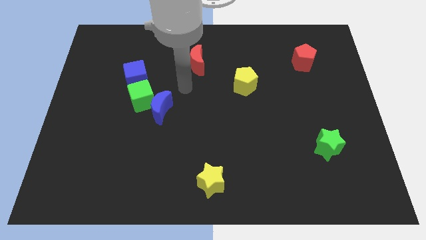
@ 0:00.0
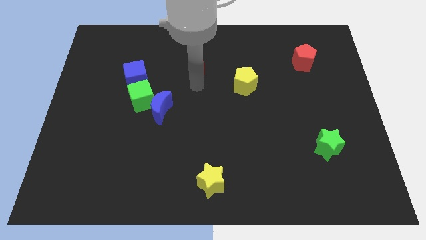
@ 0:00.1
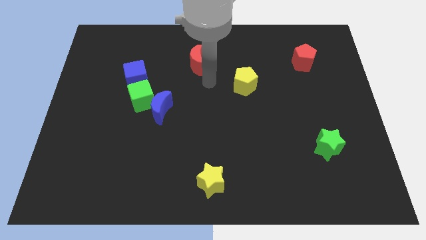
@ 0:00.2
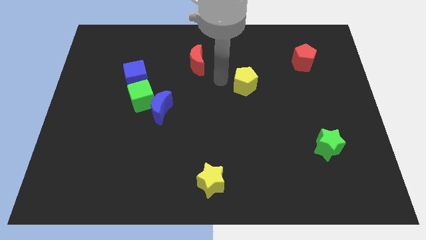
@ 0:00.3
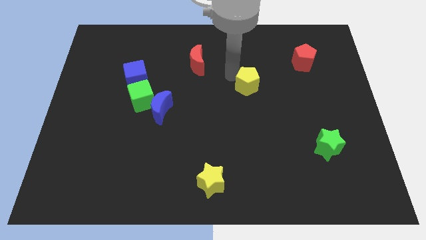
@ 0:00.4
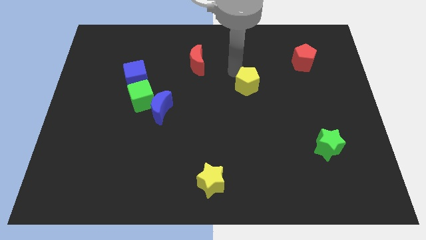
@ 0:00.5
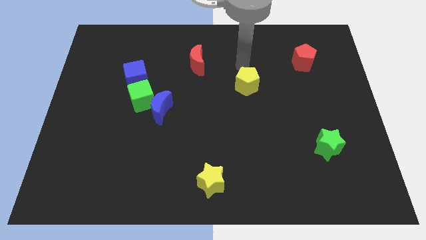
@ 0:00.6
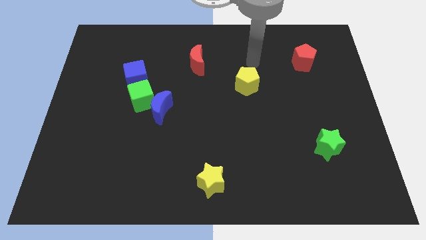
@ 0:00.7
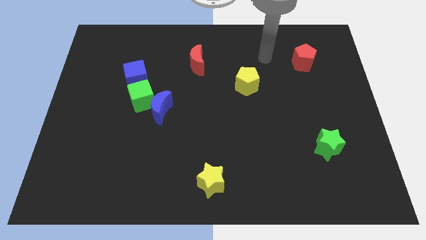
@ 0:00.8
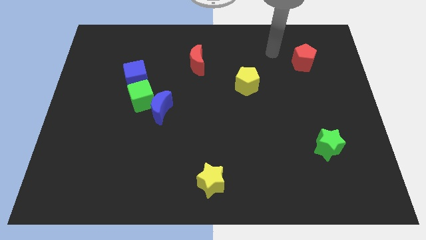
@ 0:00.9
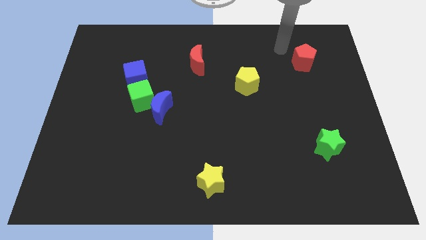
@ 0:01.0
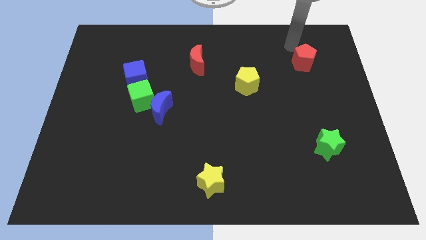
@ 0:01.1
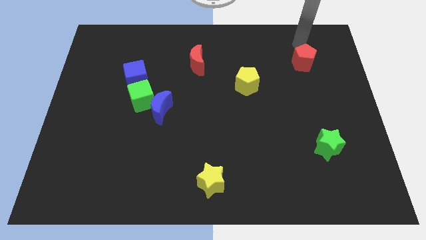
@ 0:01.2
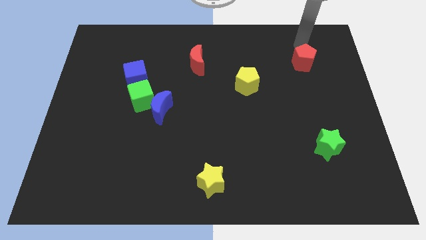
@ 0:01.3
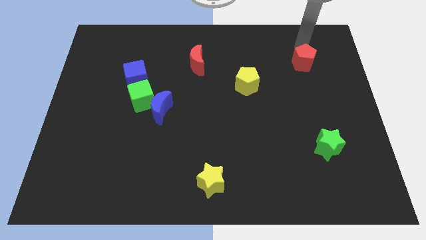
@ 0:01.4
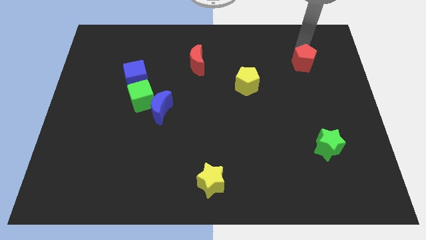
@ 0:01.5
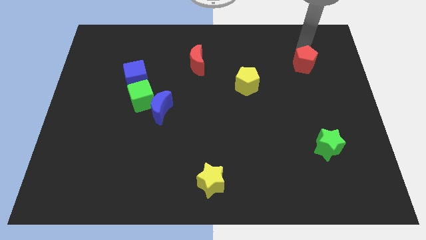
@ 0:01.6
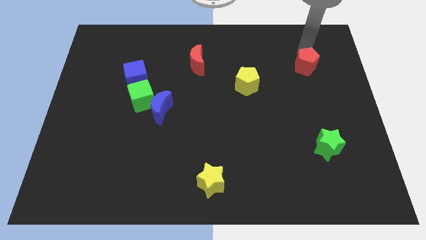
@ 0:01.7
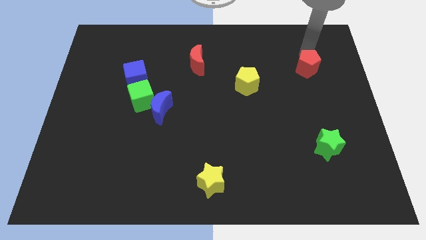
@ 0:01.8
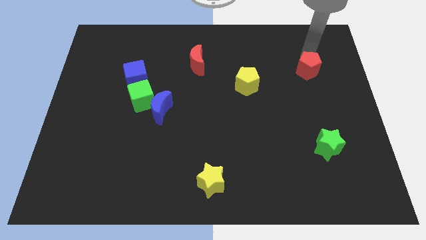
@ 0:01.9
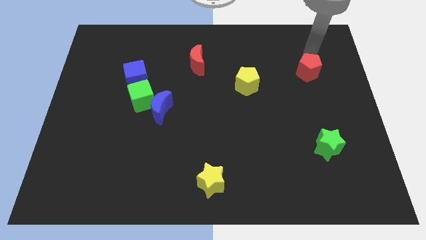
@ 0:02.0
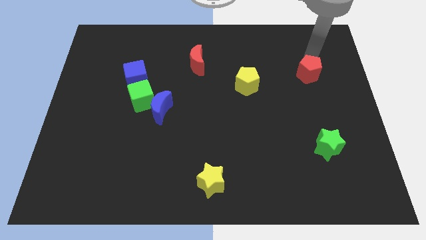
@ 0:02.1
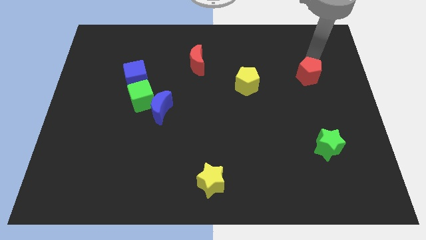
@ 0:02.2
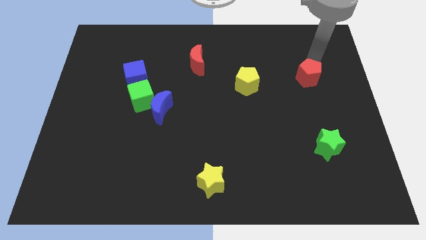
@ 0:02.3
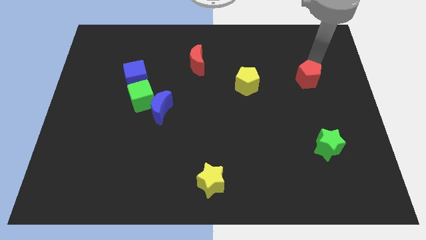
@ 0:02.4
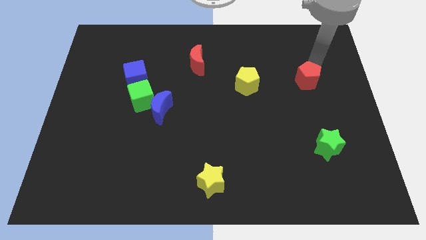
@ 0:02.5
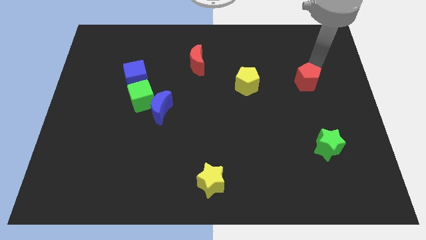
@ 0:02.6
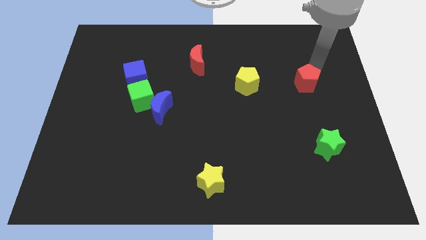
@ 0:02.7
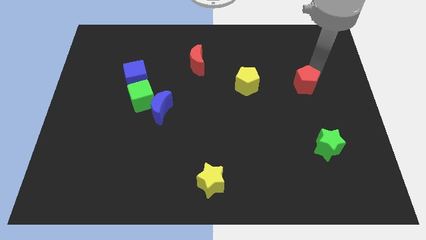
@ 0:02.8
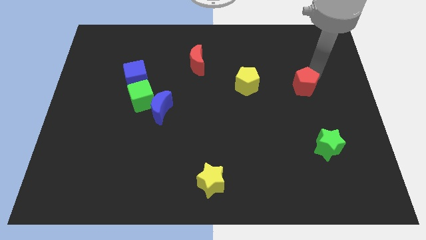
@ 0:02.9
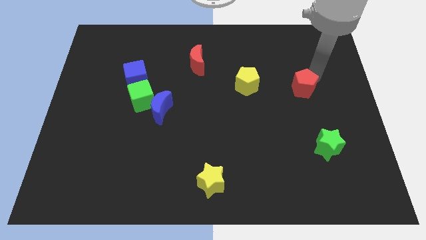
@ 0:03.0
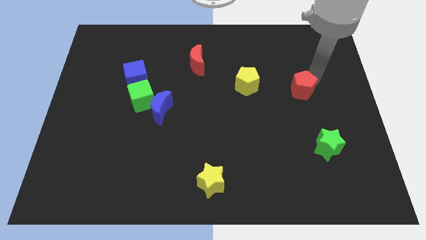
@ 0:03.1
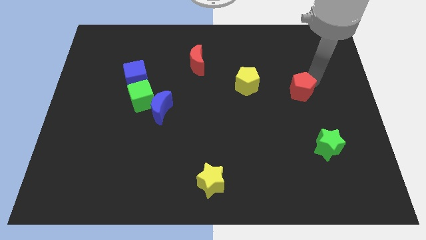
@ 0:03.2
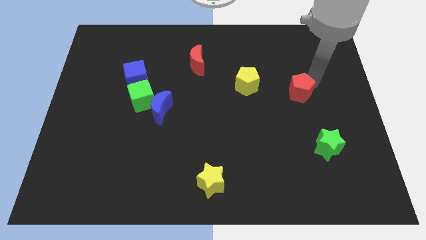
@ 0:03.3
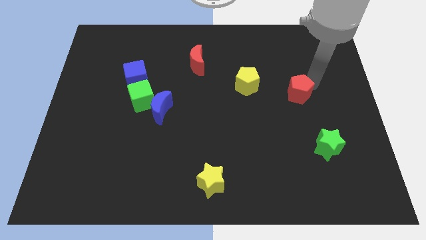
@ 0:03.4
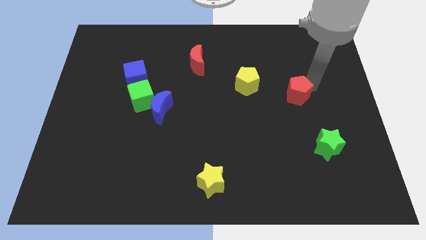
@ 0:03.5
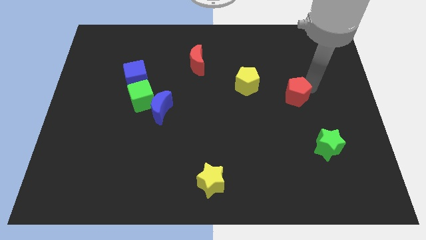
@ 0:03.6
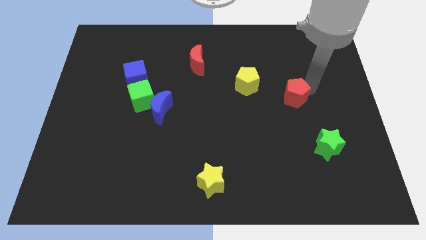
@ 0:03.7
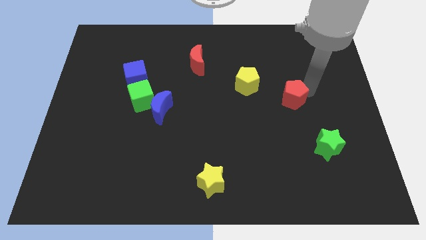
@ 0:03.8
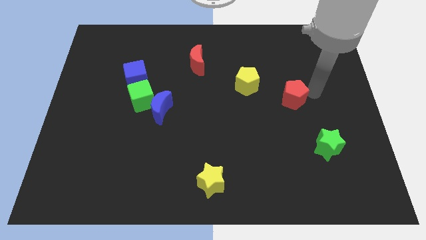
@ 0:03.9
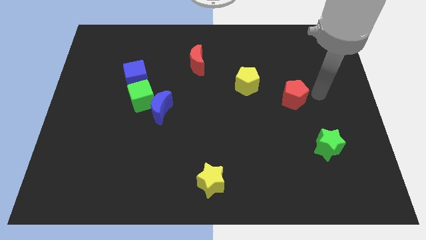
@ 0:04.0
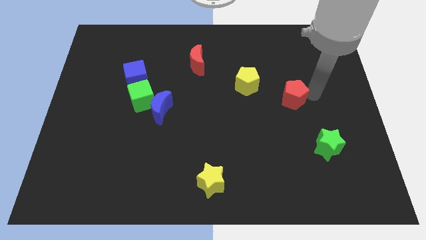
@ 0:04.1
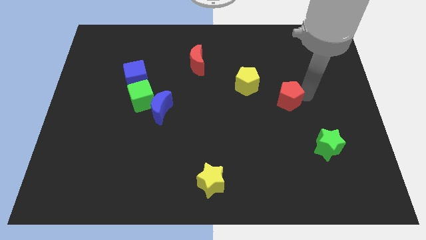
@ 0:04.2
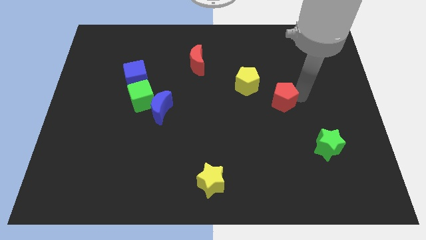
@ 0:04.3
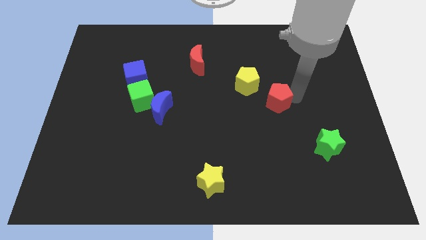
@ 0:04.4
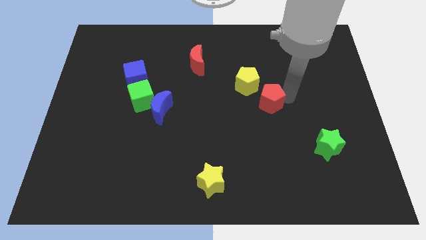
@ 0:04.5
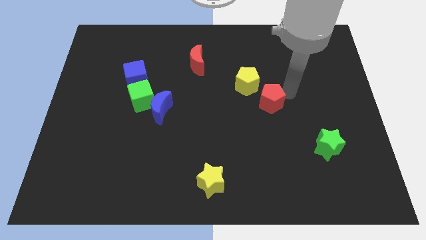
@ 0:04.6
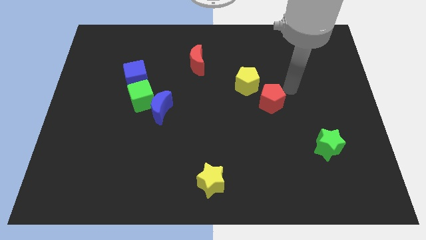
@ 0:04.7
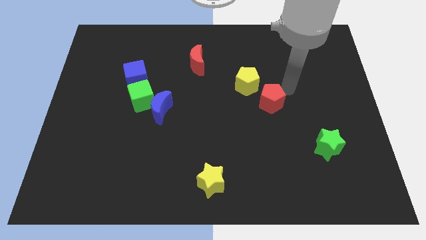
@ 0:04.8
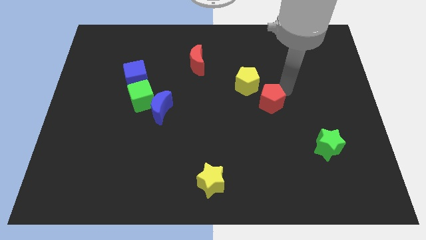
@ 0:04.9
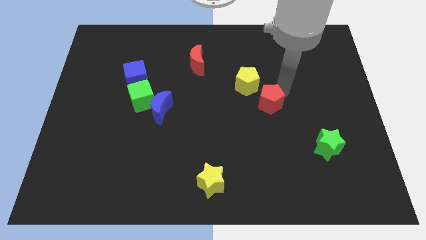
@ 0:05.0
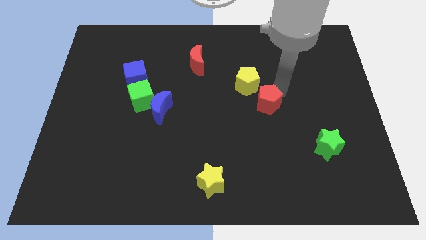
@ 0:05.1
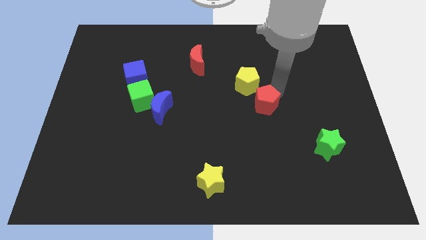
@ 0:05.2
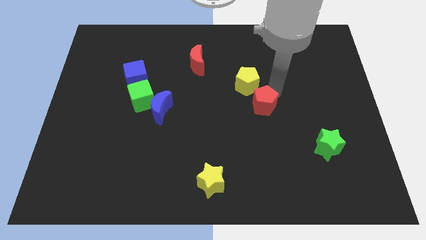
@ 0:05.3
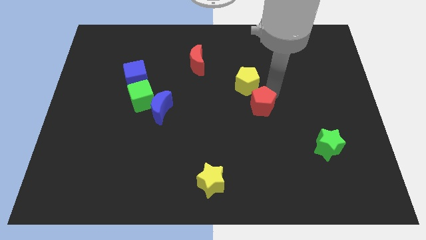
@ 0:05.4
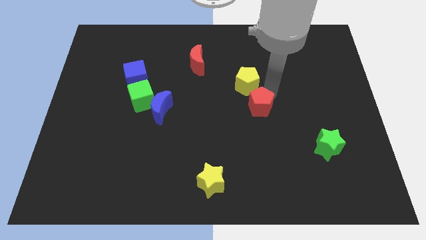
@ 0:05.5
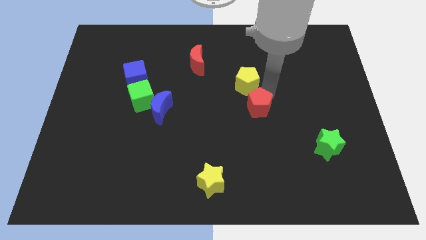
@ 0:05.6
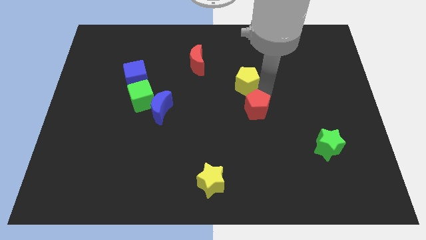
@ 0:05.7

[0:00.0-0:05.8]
slide the red pentagon diagonally down and to the left

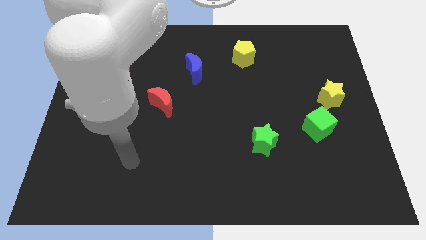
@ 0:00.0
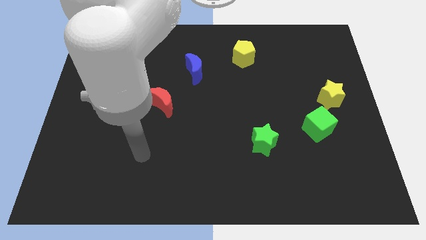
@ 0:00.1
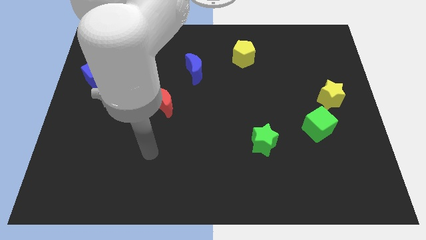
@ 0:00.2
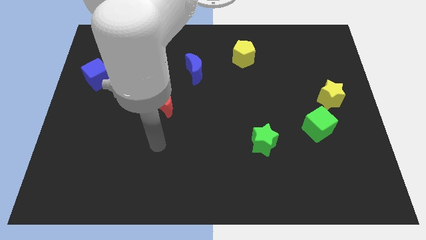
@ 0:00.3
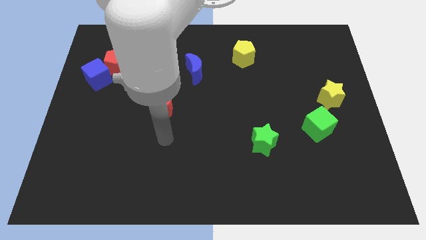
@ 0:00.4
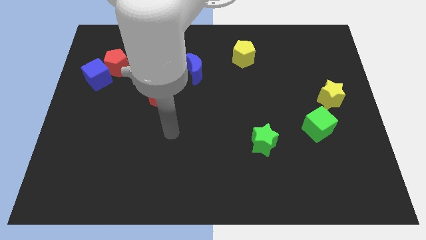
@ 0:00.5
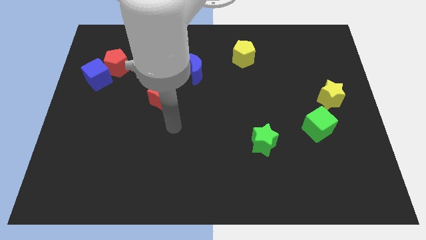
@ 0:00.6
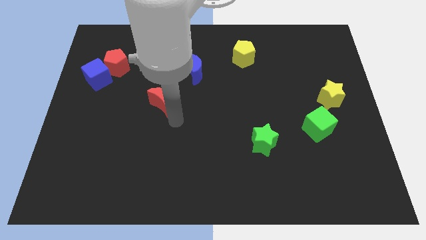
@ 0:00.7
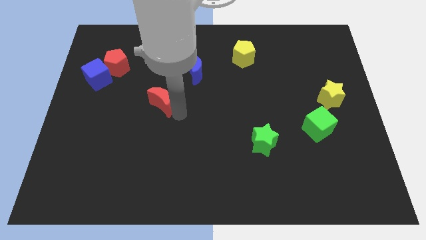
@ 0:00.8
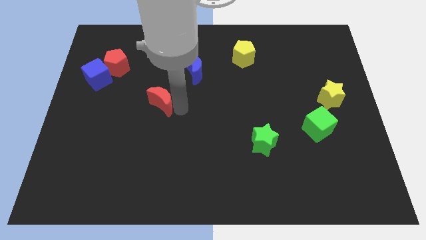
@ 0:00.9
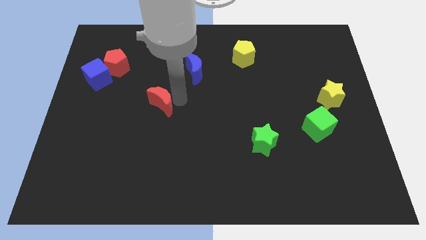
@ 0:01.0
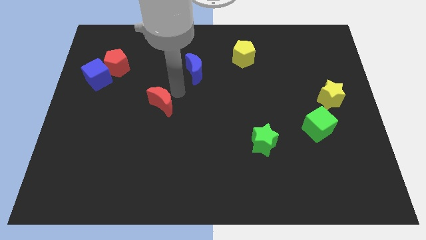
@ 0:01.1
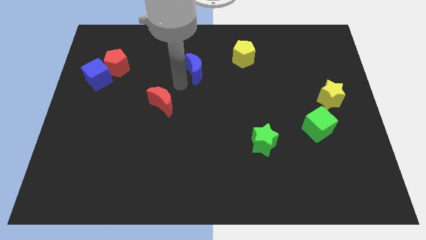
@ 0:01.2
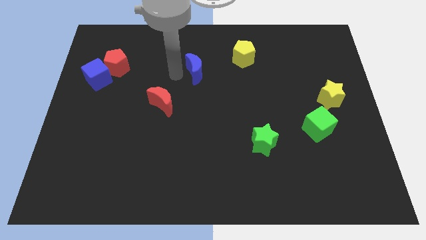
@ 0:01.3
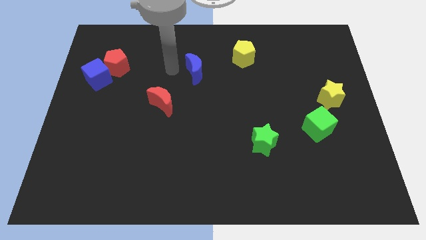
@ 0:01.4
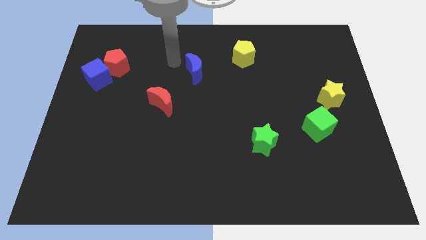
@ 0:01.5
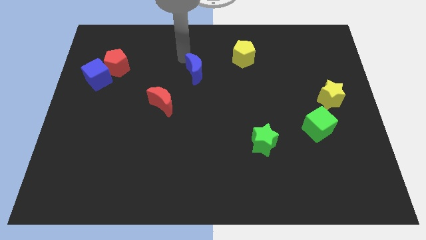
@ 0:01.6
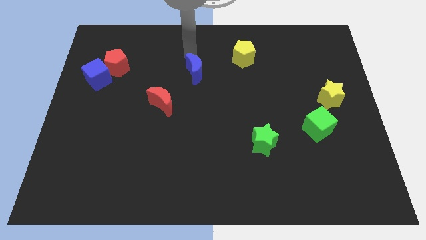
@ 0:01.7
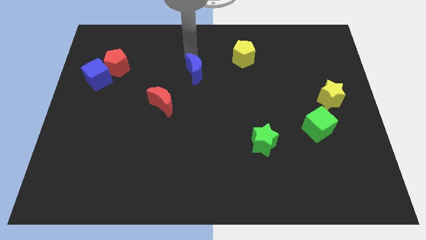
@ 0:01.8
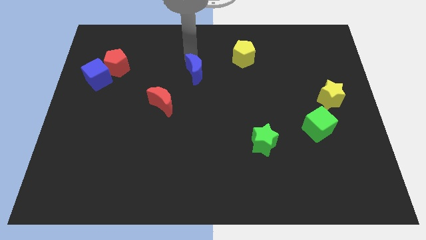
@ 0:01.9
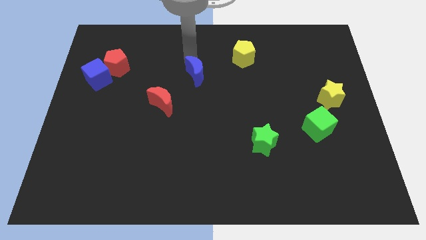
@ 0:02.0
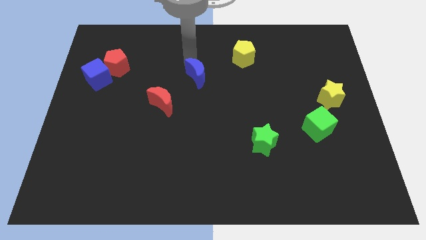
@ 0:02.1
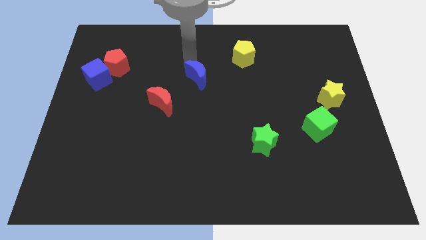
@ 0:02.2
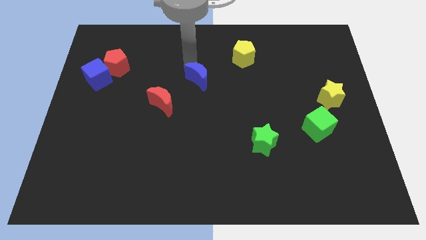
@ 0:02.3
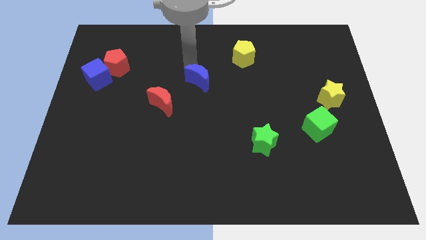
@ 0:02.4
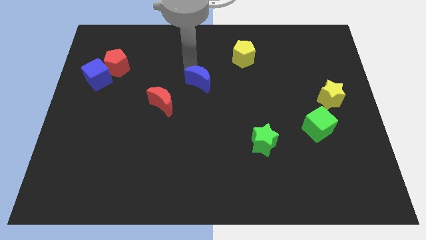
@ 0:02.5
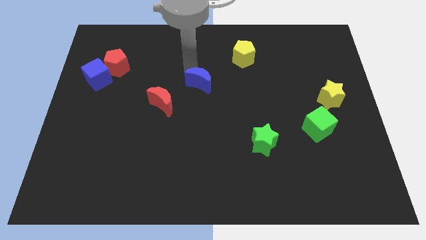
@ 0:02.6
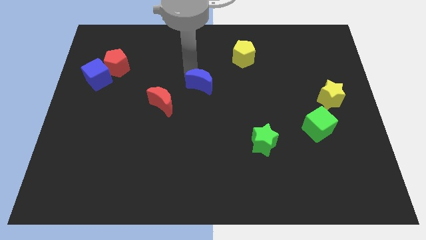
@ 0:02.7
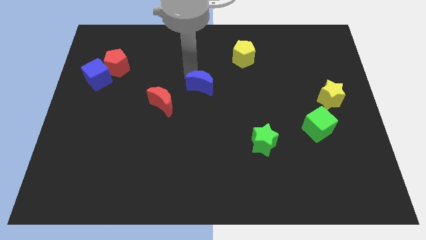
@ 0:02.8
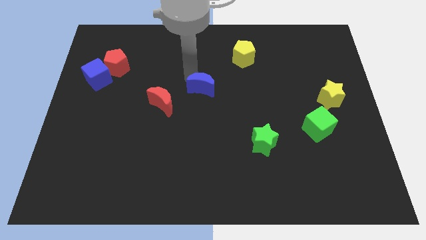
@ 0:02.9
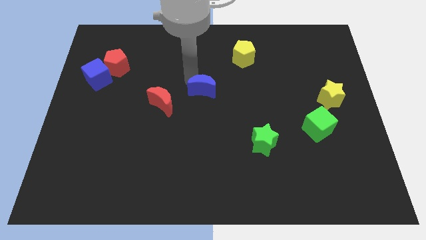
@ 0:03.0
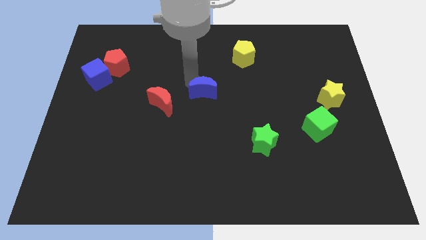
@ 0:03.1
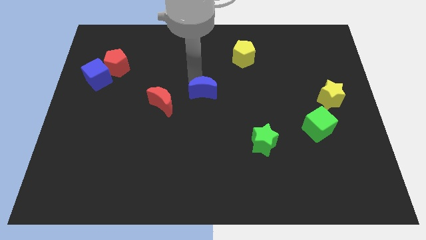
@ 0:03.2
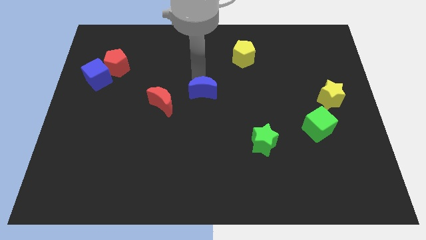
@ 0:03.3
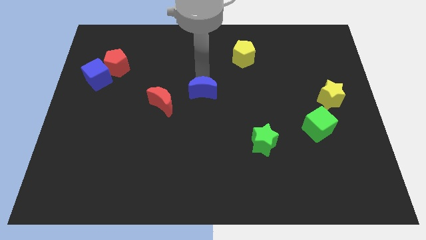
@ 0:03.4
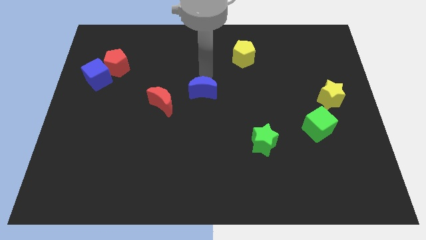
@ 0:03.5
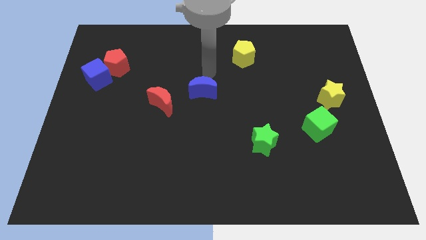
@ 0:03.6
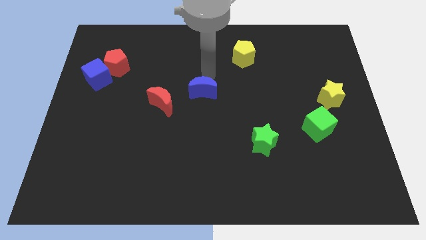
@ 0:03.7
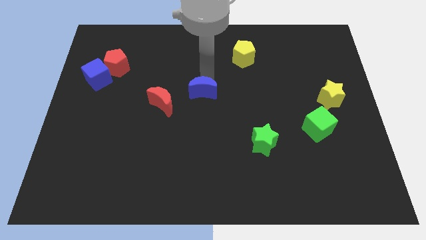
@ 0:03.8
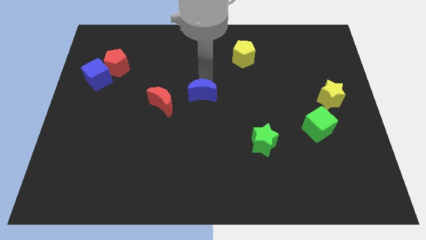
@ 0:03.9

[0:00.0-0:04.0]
slide the blue moon down slightly
